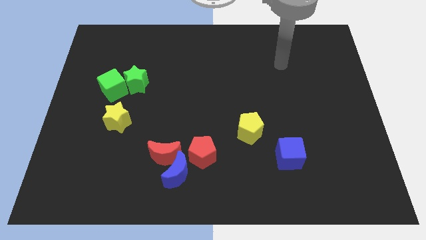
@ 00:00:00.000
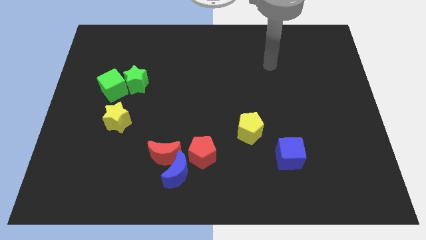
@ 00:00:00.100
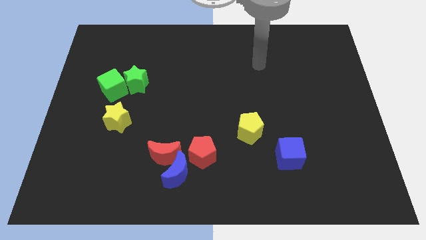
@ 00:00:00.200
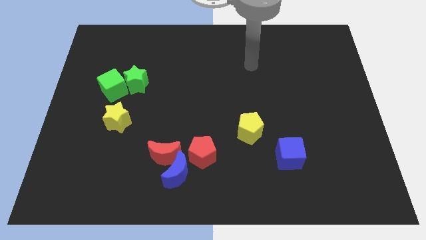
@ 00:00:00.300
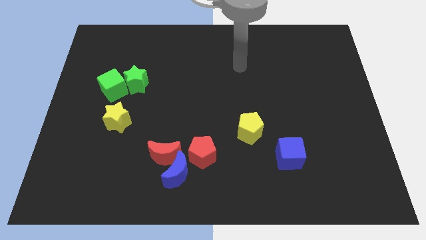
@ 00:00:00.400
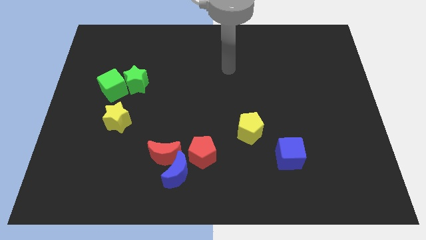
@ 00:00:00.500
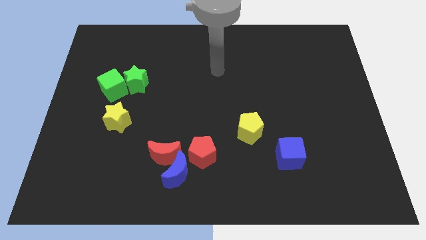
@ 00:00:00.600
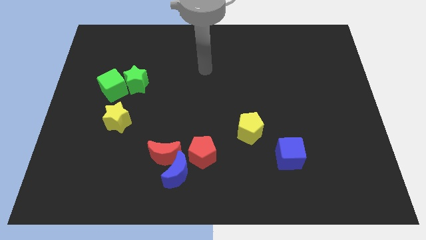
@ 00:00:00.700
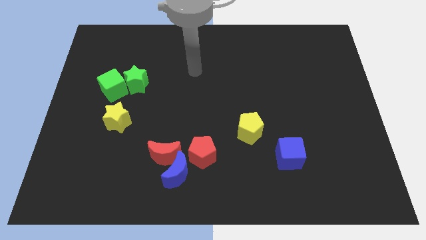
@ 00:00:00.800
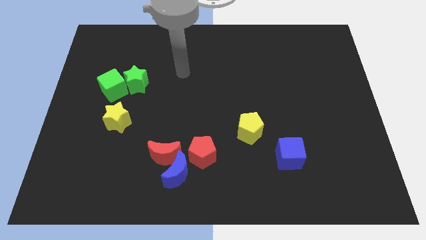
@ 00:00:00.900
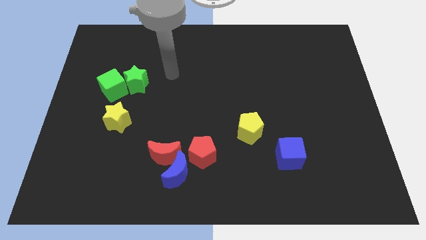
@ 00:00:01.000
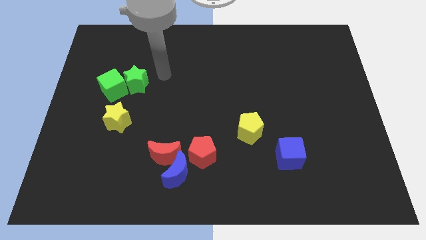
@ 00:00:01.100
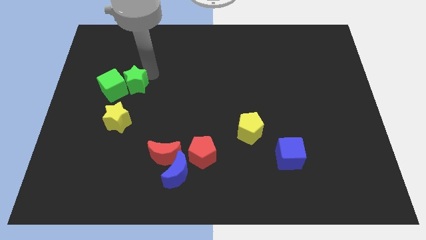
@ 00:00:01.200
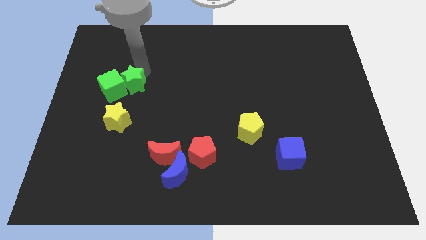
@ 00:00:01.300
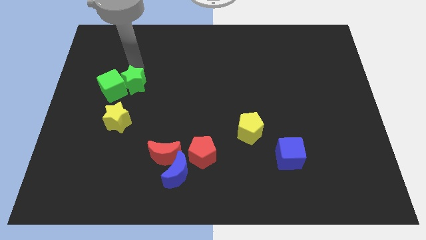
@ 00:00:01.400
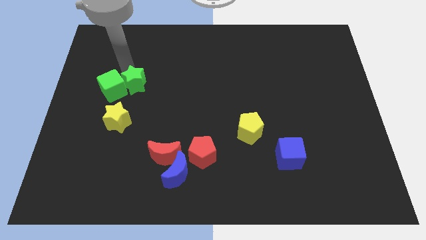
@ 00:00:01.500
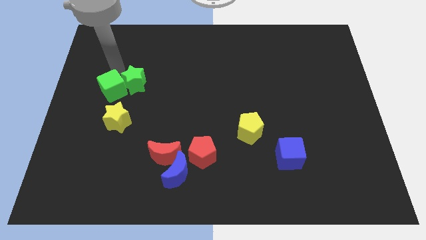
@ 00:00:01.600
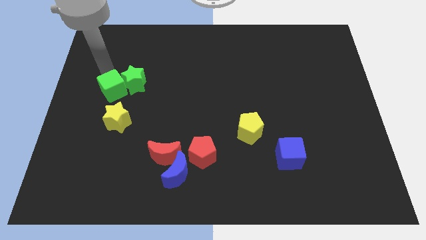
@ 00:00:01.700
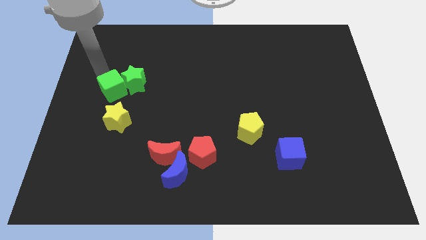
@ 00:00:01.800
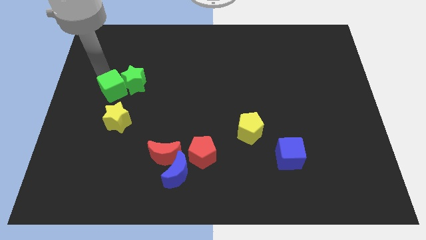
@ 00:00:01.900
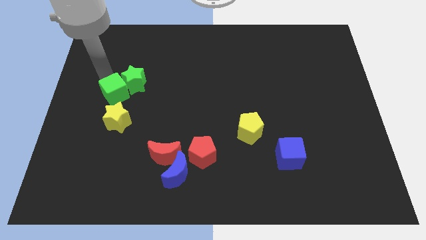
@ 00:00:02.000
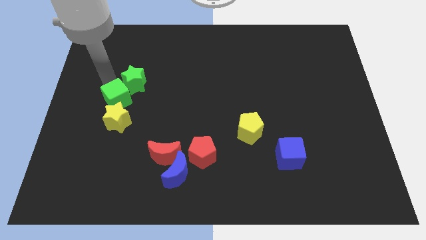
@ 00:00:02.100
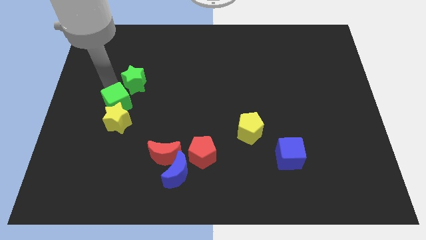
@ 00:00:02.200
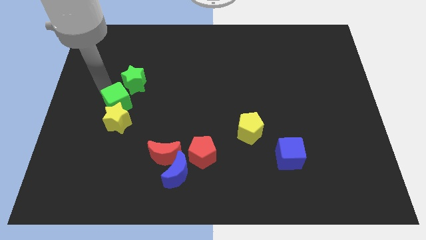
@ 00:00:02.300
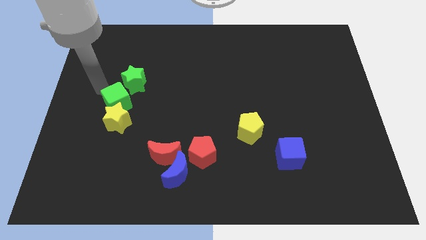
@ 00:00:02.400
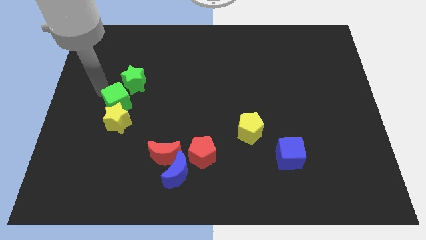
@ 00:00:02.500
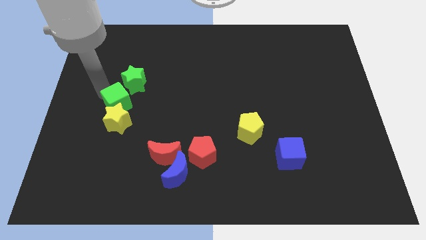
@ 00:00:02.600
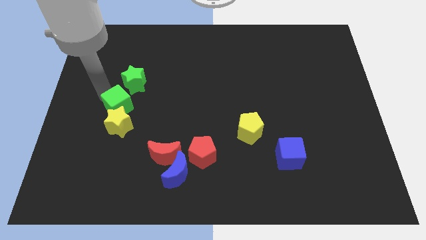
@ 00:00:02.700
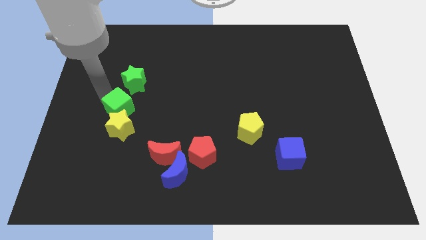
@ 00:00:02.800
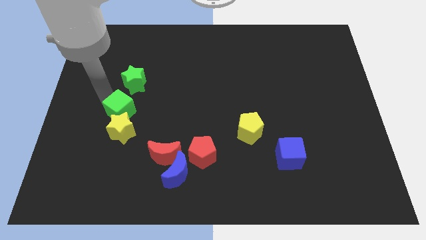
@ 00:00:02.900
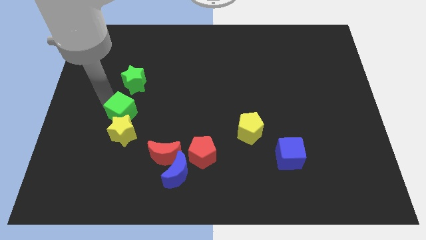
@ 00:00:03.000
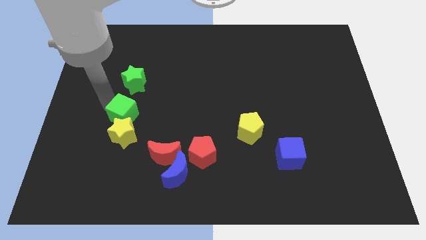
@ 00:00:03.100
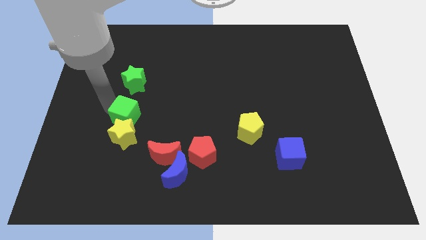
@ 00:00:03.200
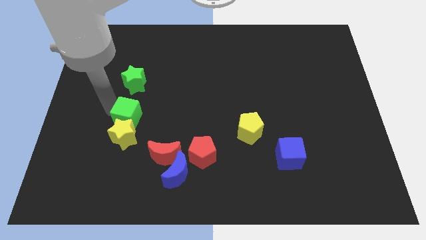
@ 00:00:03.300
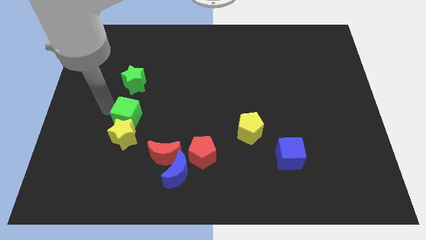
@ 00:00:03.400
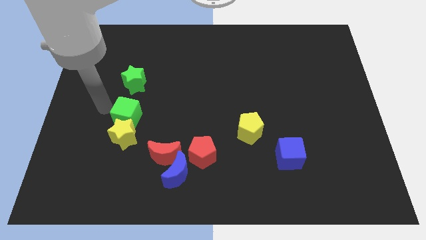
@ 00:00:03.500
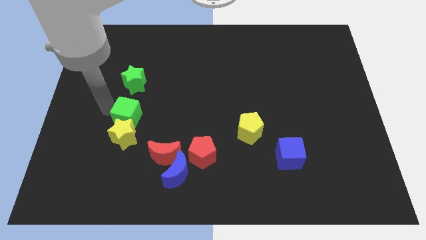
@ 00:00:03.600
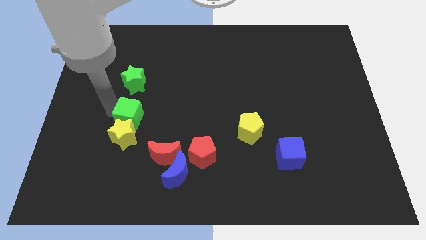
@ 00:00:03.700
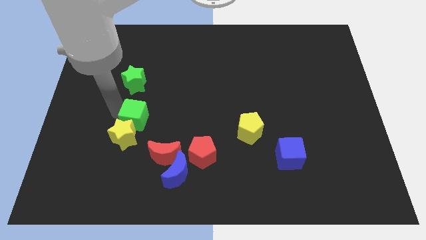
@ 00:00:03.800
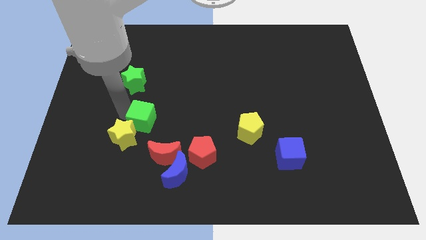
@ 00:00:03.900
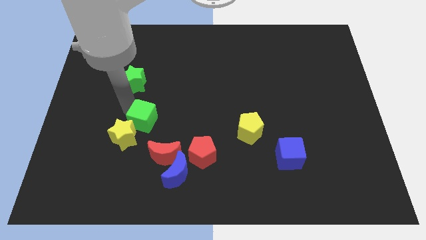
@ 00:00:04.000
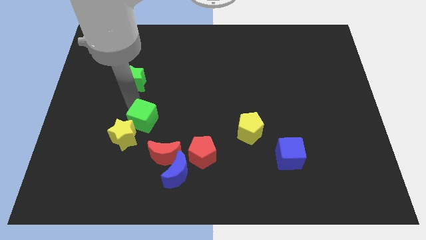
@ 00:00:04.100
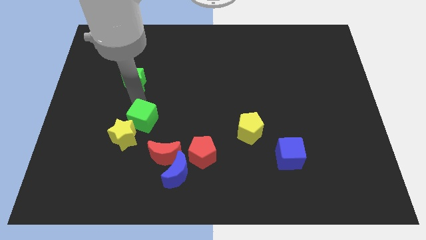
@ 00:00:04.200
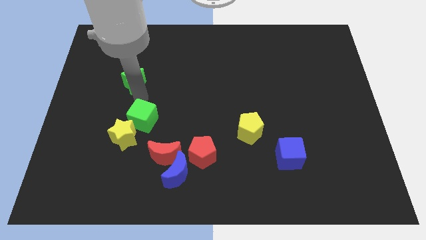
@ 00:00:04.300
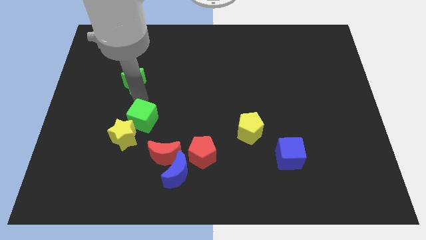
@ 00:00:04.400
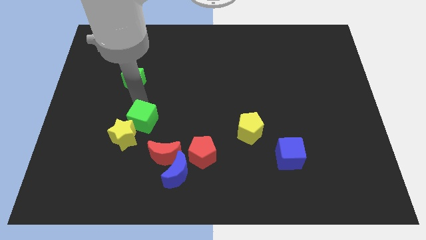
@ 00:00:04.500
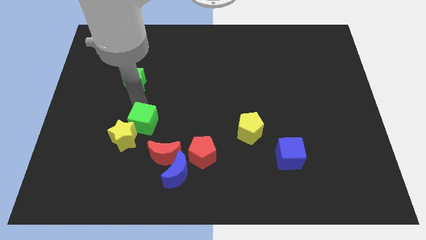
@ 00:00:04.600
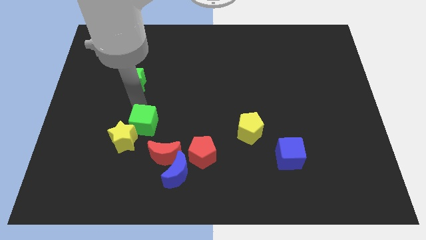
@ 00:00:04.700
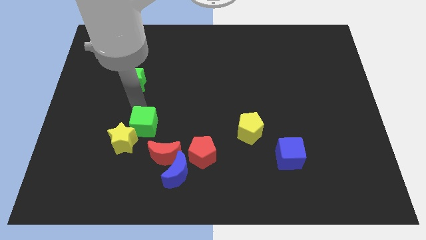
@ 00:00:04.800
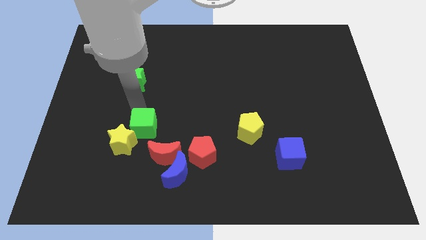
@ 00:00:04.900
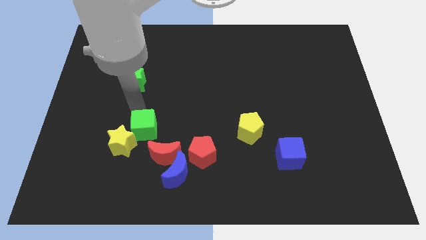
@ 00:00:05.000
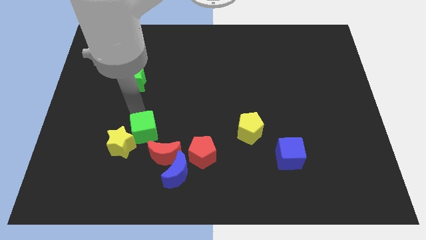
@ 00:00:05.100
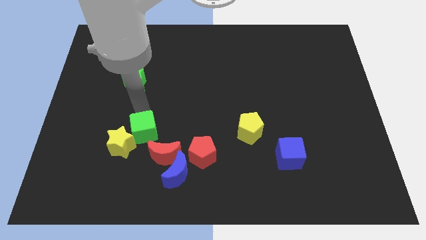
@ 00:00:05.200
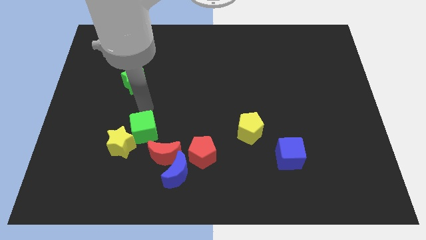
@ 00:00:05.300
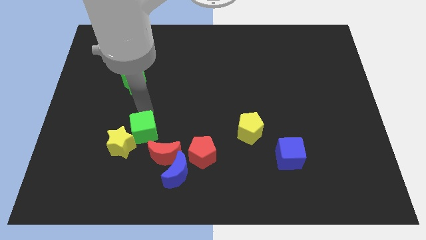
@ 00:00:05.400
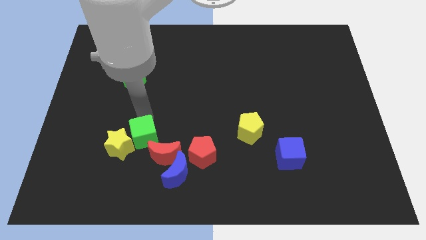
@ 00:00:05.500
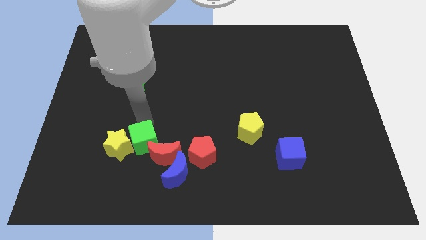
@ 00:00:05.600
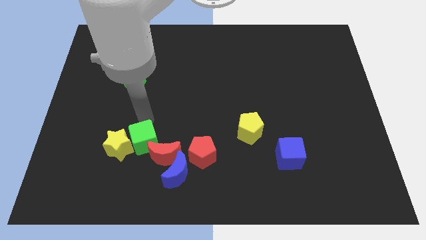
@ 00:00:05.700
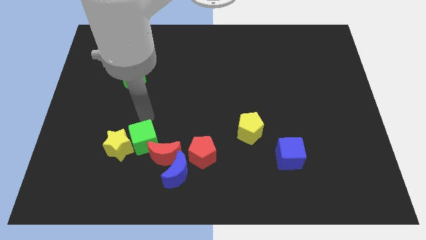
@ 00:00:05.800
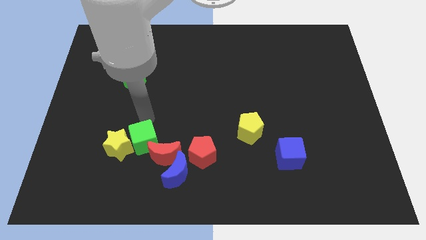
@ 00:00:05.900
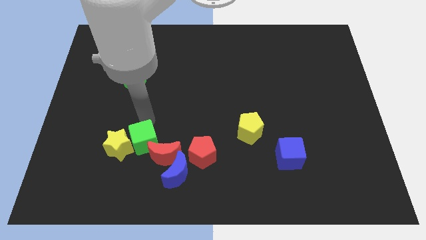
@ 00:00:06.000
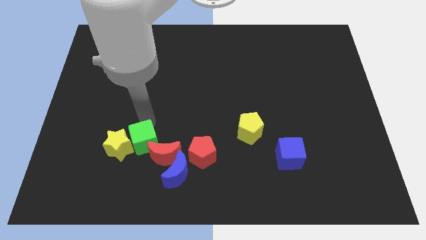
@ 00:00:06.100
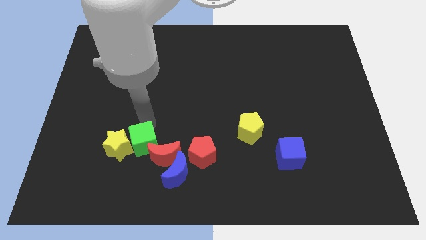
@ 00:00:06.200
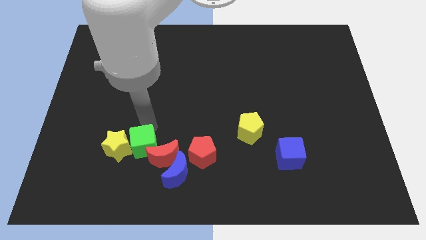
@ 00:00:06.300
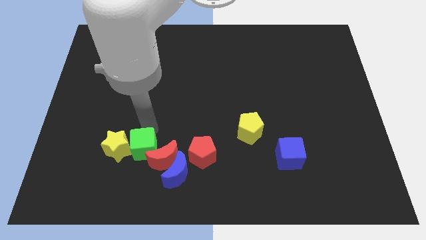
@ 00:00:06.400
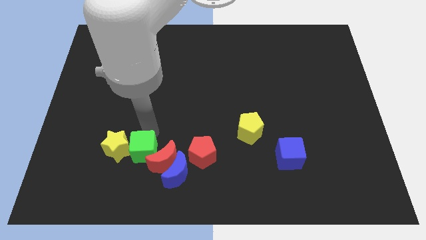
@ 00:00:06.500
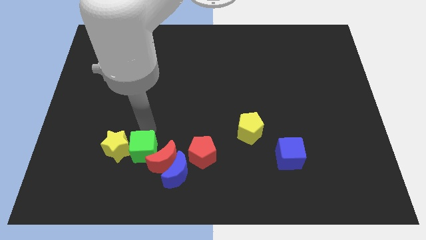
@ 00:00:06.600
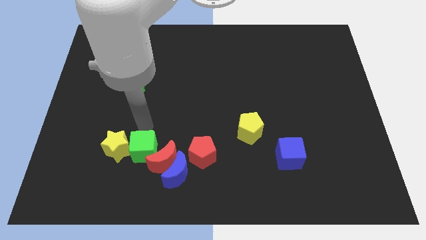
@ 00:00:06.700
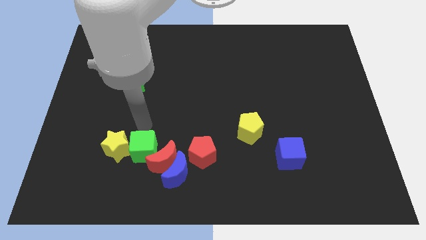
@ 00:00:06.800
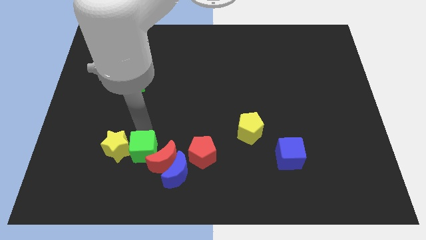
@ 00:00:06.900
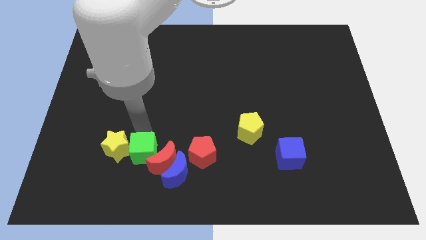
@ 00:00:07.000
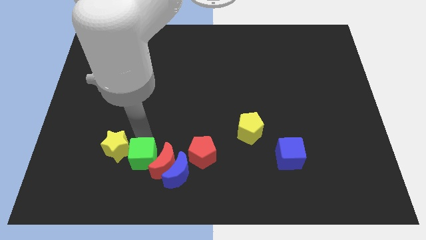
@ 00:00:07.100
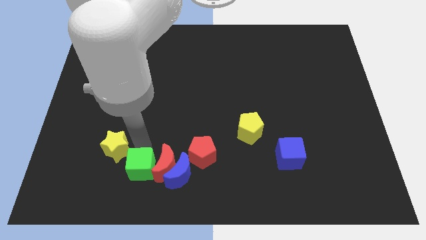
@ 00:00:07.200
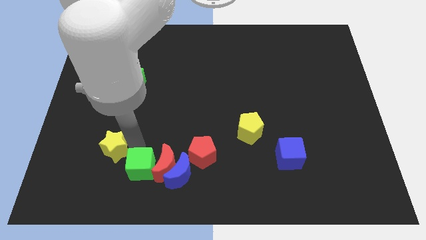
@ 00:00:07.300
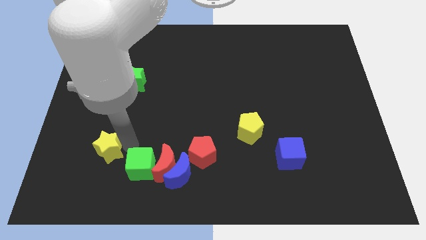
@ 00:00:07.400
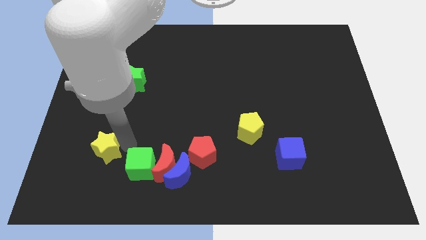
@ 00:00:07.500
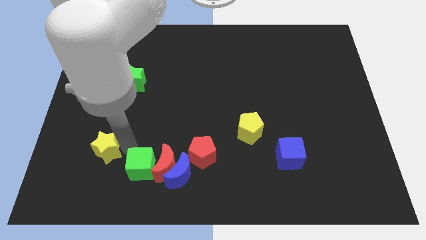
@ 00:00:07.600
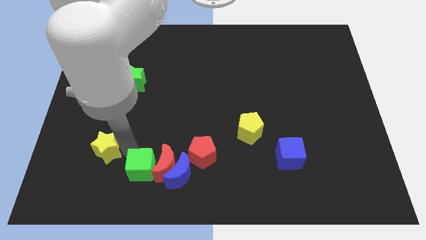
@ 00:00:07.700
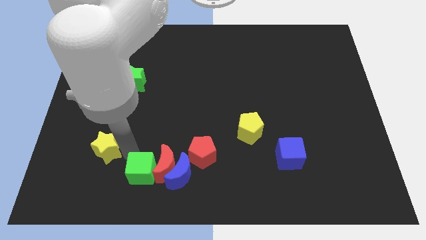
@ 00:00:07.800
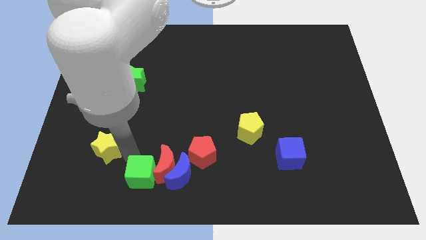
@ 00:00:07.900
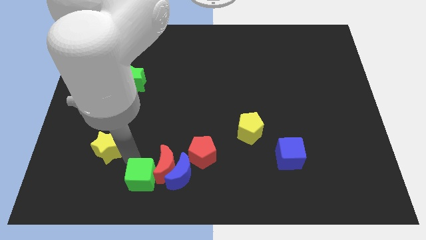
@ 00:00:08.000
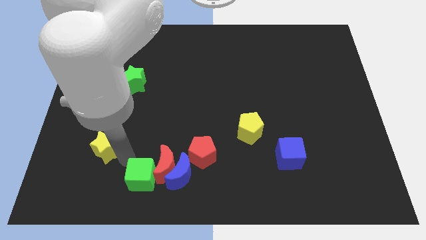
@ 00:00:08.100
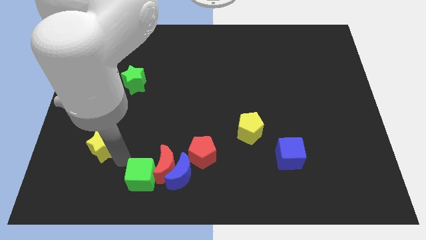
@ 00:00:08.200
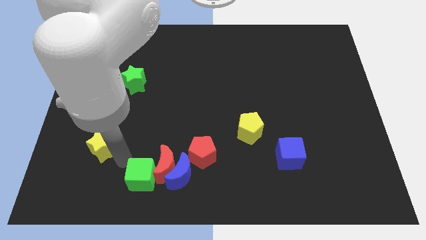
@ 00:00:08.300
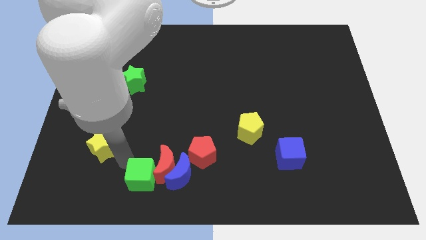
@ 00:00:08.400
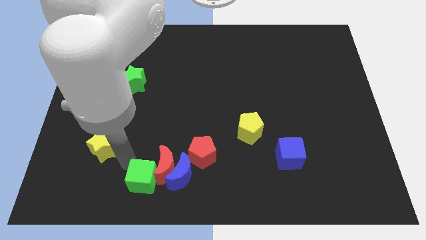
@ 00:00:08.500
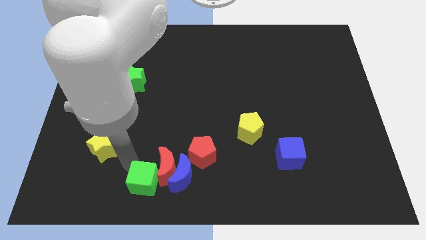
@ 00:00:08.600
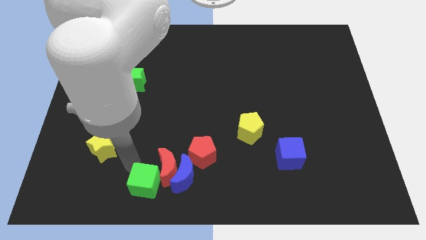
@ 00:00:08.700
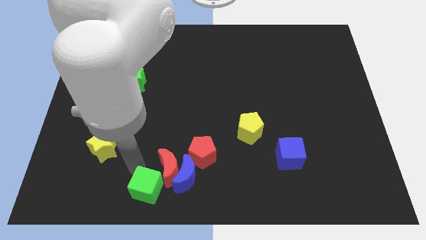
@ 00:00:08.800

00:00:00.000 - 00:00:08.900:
slide the green cube to the bottom side
